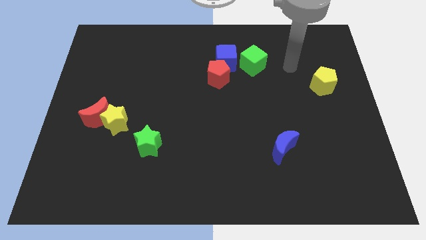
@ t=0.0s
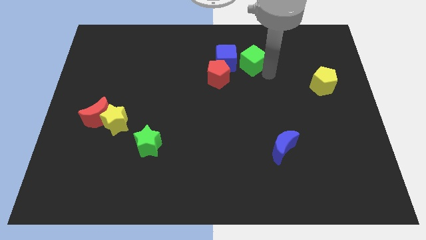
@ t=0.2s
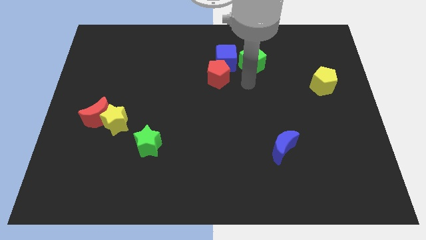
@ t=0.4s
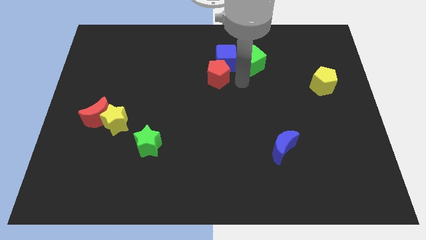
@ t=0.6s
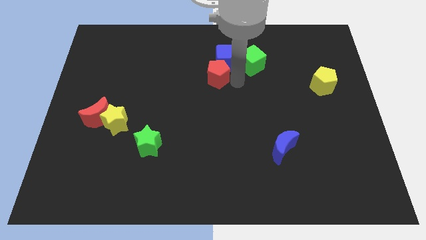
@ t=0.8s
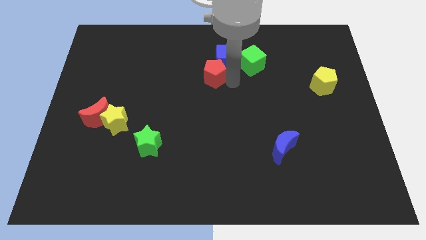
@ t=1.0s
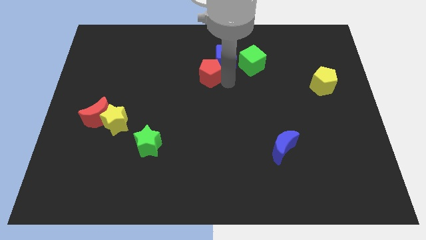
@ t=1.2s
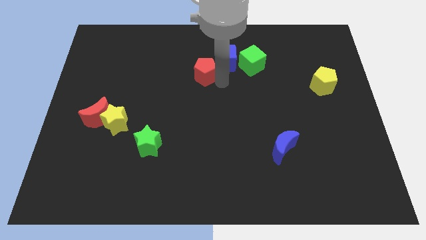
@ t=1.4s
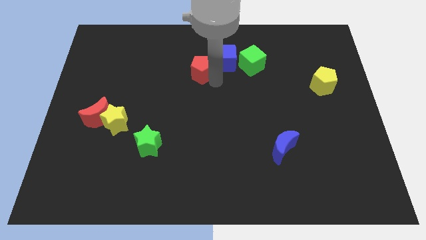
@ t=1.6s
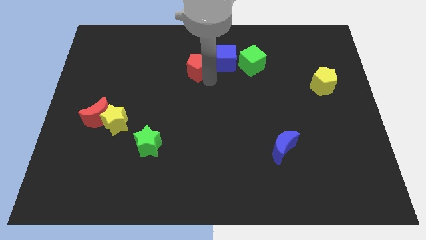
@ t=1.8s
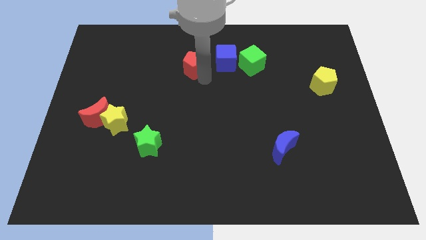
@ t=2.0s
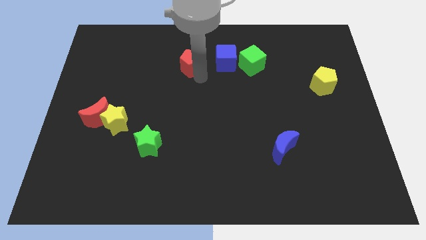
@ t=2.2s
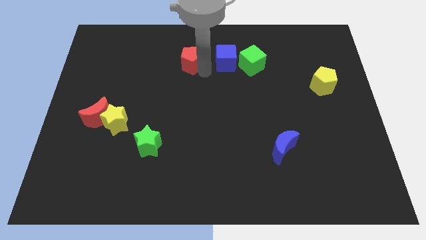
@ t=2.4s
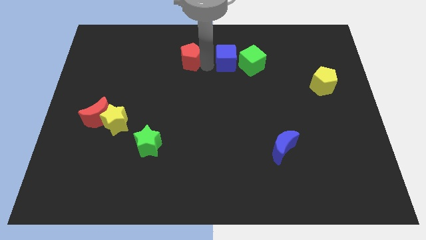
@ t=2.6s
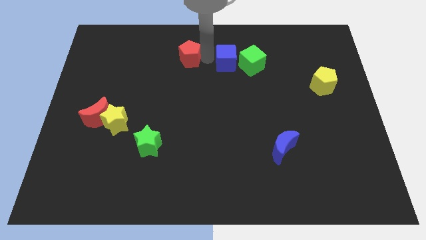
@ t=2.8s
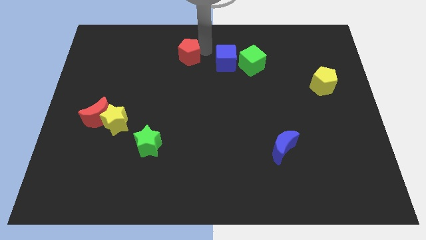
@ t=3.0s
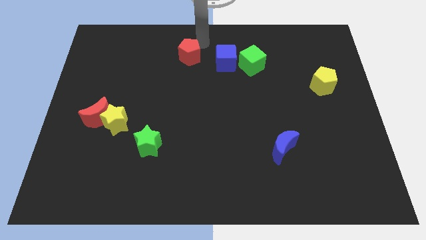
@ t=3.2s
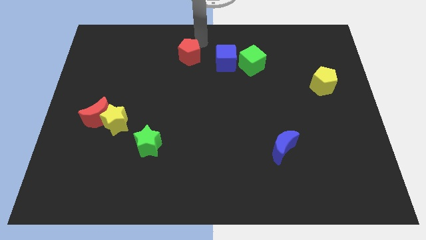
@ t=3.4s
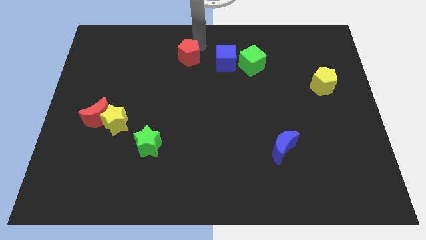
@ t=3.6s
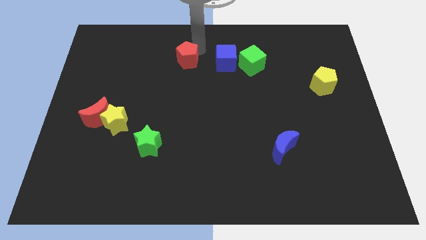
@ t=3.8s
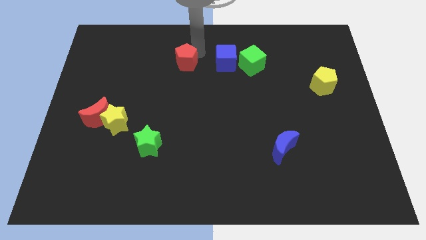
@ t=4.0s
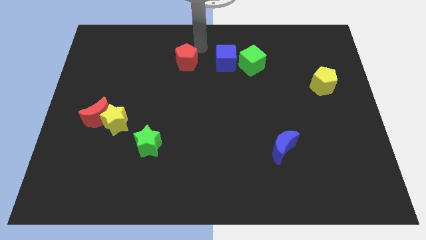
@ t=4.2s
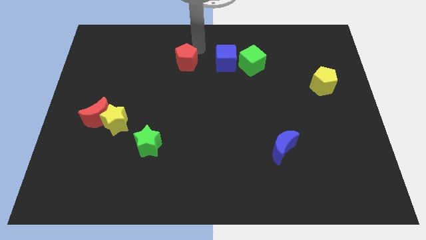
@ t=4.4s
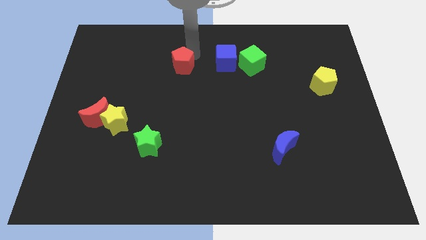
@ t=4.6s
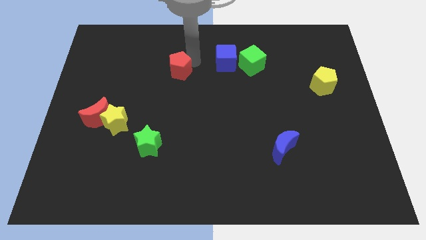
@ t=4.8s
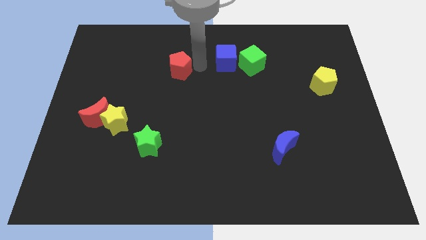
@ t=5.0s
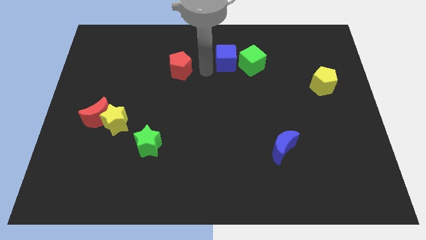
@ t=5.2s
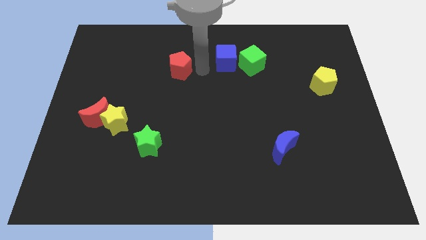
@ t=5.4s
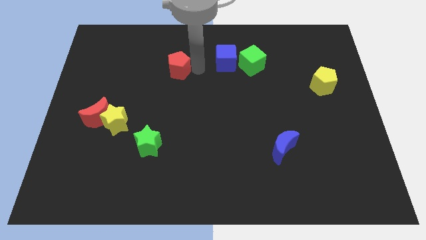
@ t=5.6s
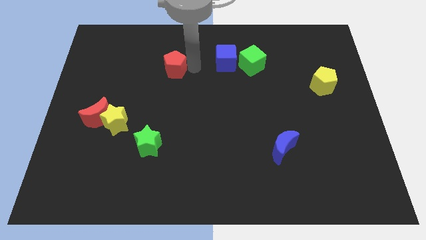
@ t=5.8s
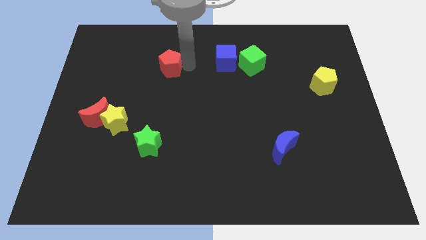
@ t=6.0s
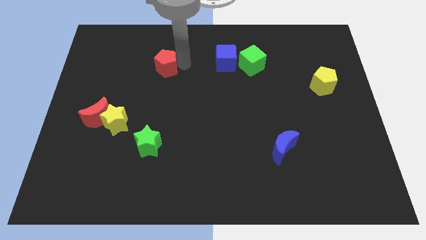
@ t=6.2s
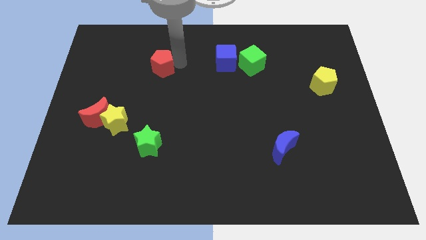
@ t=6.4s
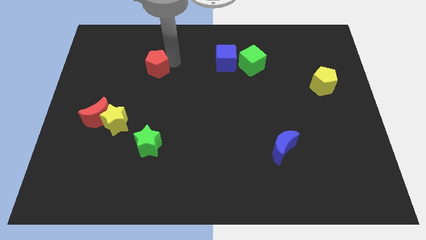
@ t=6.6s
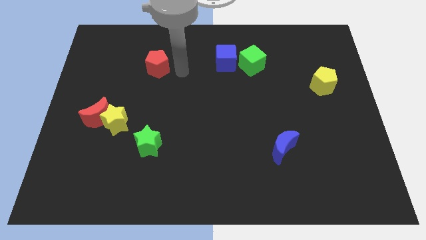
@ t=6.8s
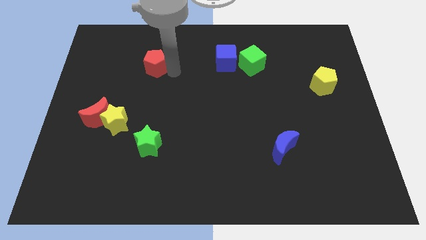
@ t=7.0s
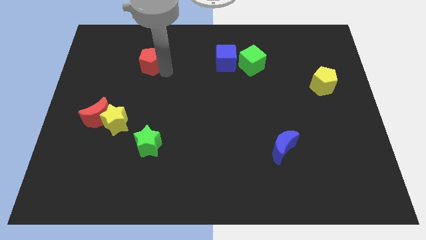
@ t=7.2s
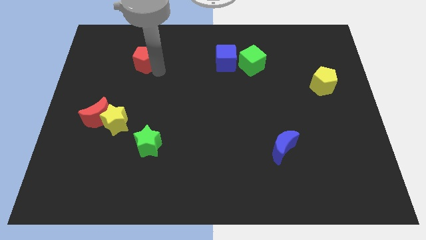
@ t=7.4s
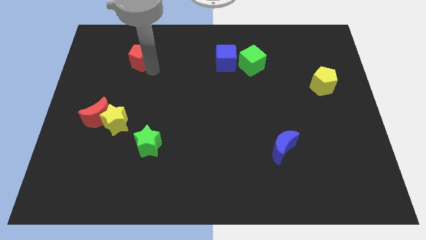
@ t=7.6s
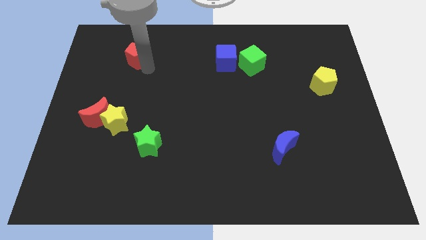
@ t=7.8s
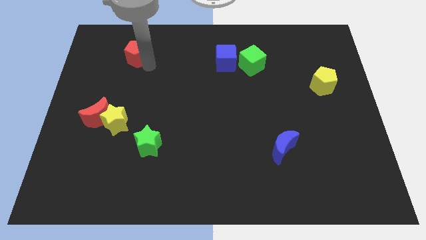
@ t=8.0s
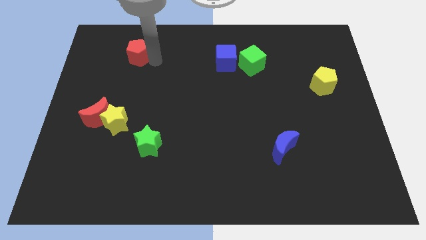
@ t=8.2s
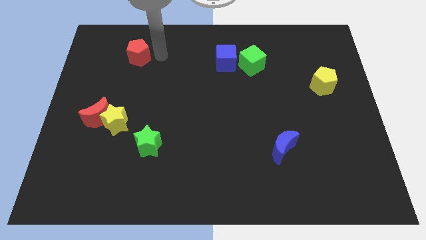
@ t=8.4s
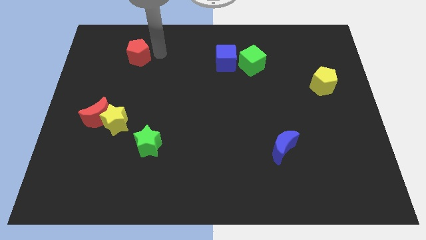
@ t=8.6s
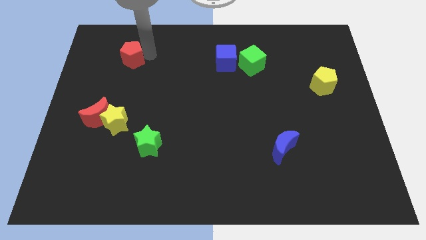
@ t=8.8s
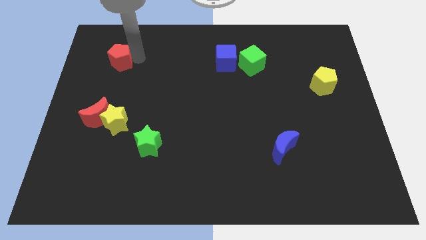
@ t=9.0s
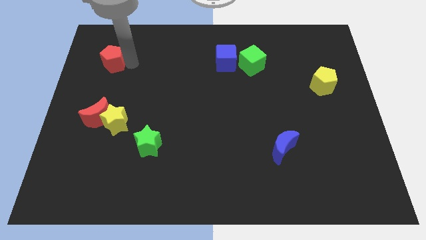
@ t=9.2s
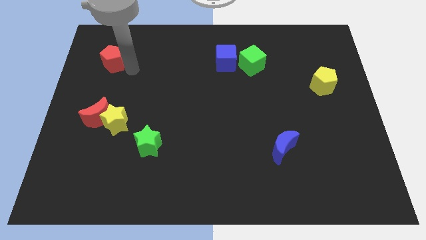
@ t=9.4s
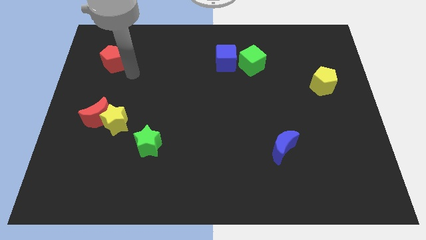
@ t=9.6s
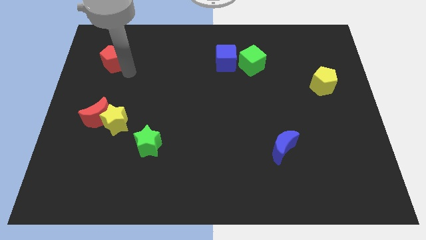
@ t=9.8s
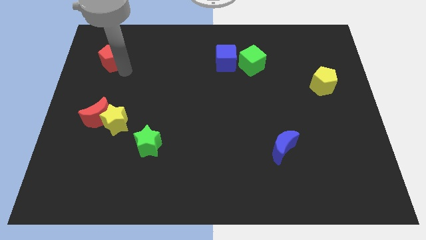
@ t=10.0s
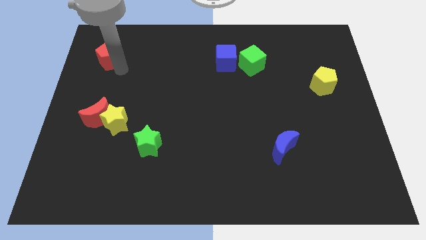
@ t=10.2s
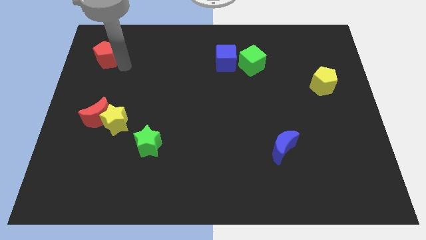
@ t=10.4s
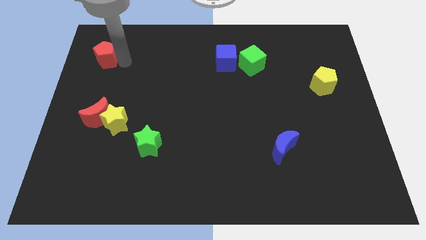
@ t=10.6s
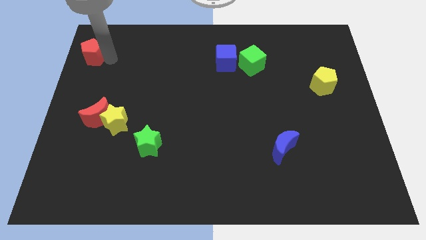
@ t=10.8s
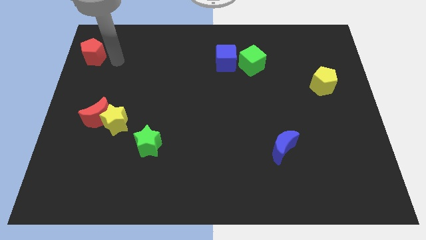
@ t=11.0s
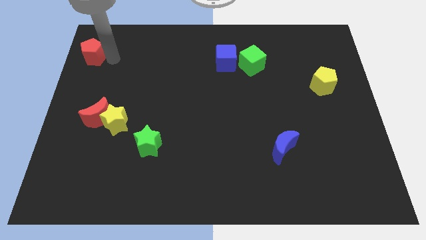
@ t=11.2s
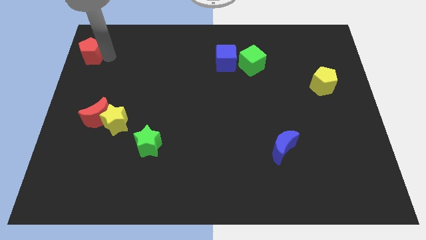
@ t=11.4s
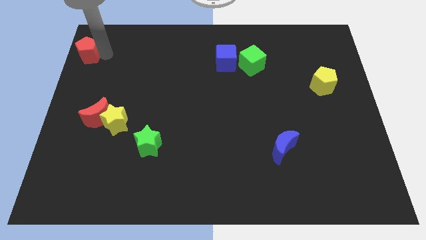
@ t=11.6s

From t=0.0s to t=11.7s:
move the red pentagon to the upper left corner
